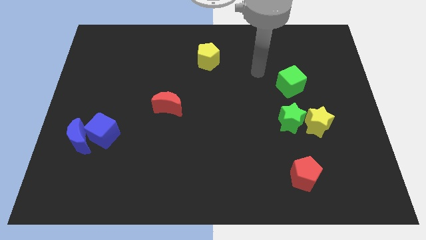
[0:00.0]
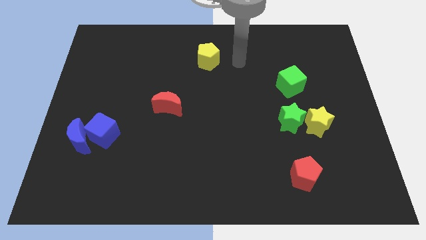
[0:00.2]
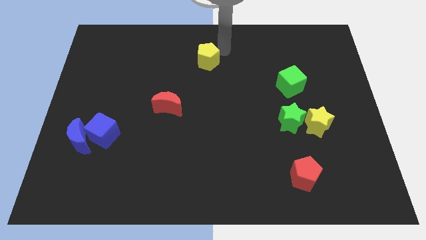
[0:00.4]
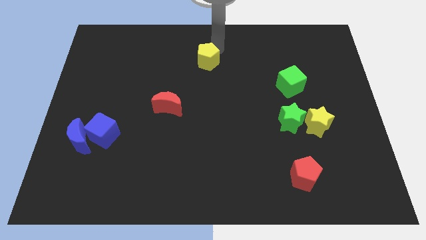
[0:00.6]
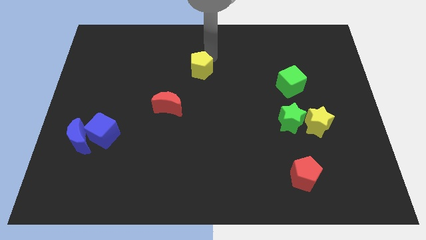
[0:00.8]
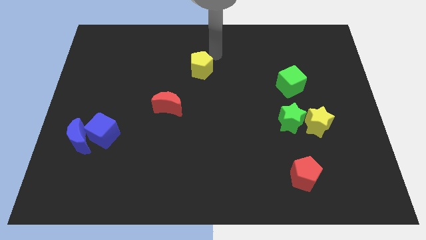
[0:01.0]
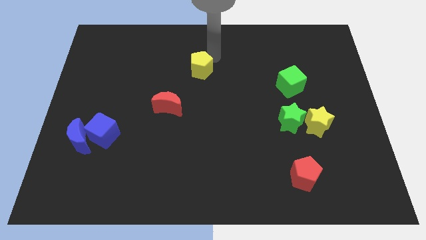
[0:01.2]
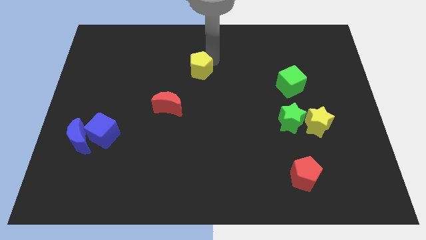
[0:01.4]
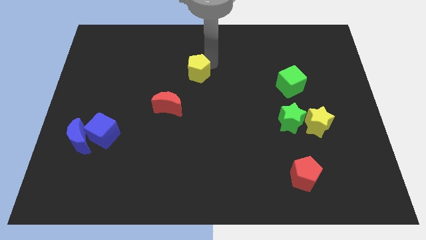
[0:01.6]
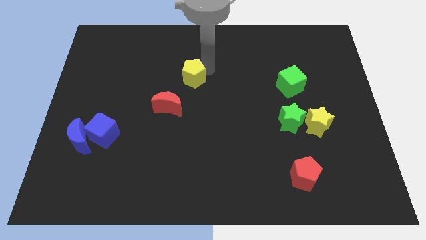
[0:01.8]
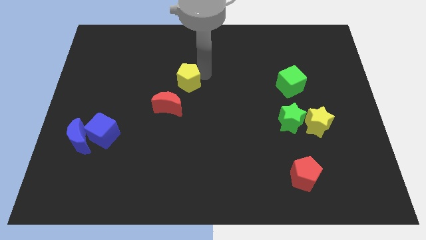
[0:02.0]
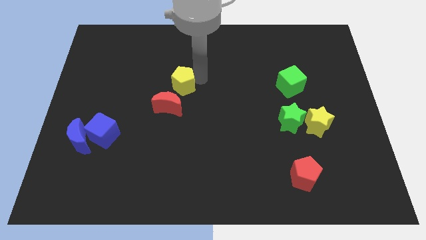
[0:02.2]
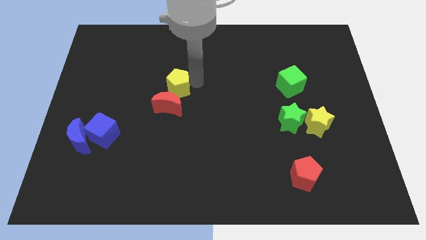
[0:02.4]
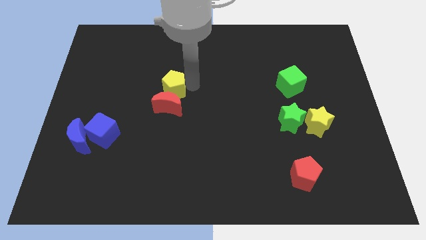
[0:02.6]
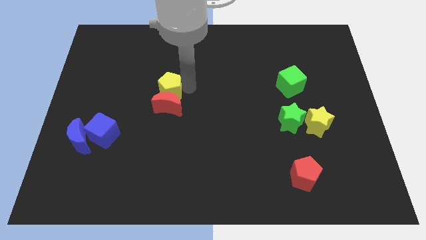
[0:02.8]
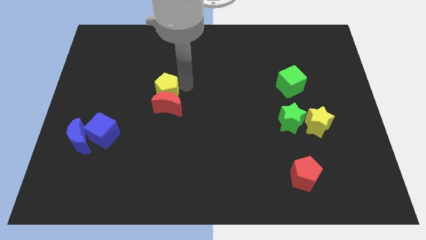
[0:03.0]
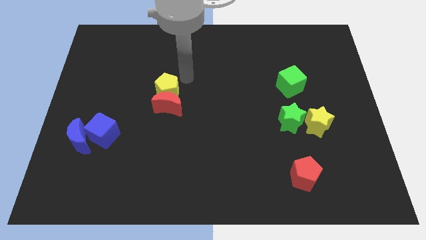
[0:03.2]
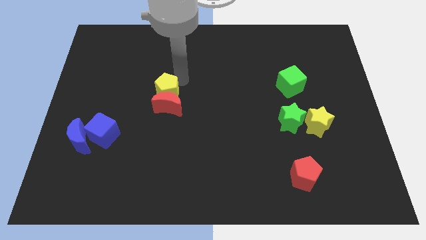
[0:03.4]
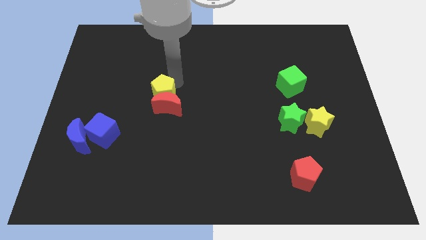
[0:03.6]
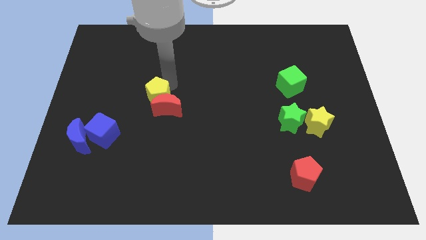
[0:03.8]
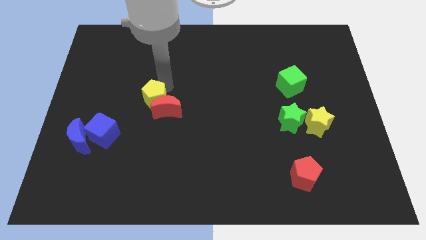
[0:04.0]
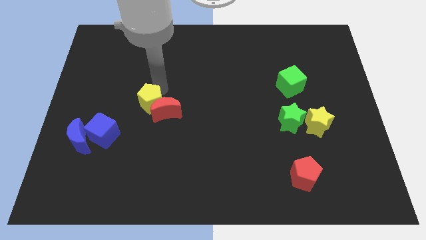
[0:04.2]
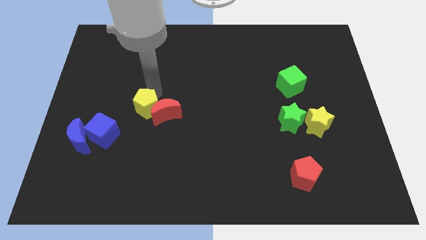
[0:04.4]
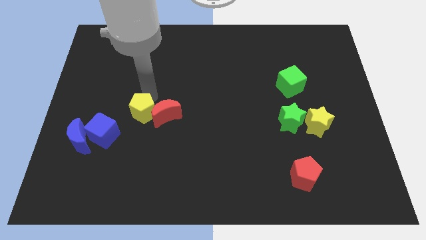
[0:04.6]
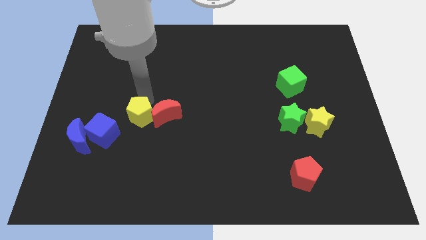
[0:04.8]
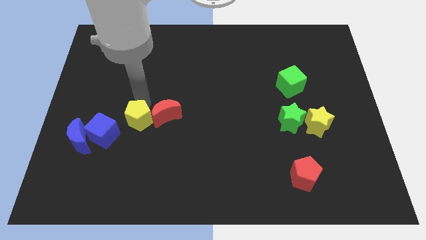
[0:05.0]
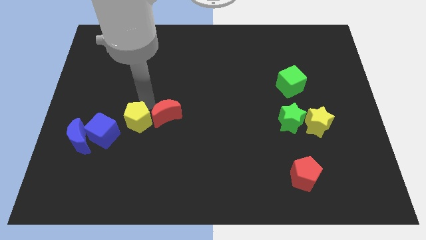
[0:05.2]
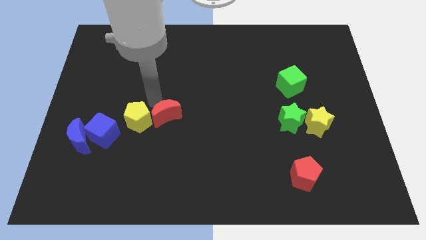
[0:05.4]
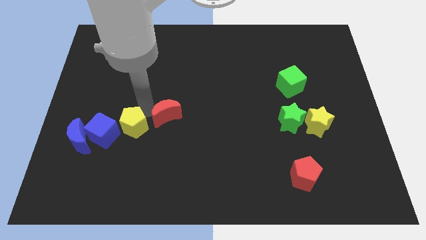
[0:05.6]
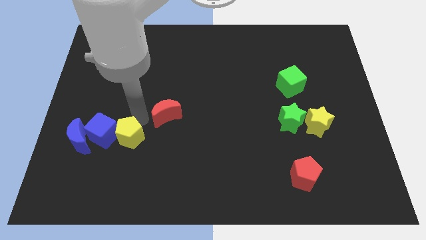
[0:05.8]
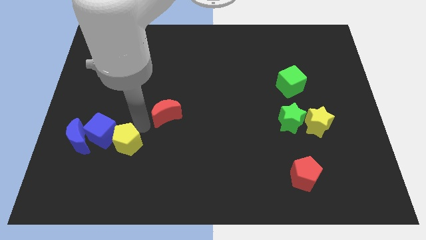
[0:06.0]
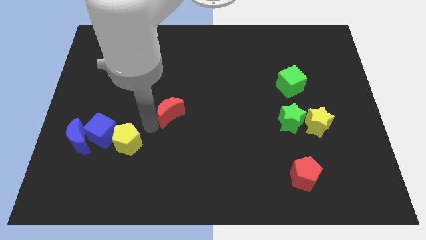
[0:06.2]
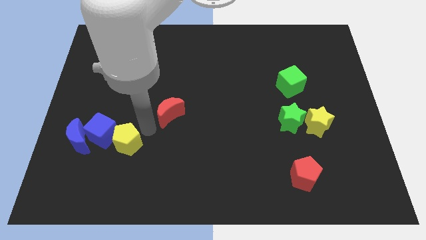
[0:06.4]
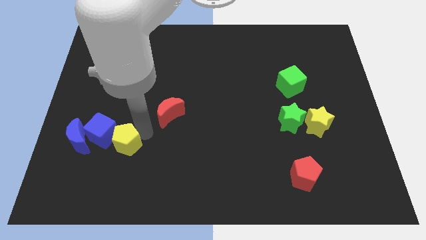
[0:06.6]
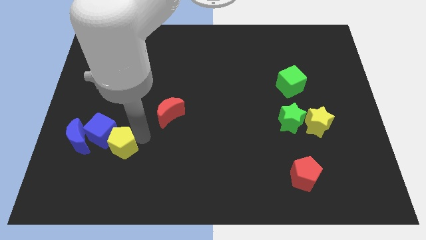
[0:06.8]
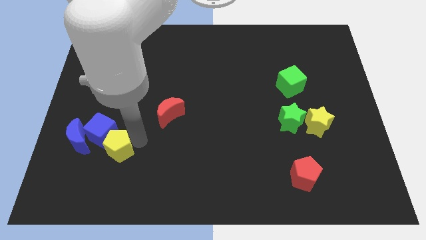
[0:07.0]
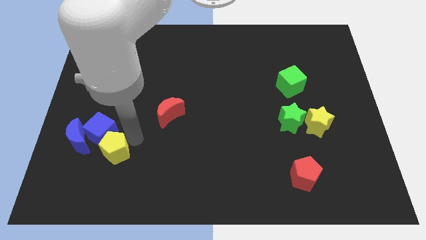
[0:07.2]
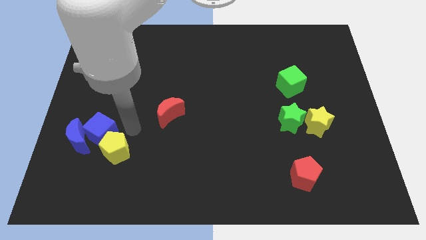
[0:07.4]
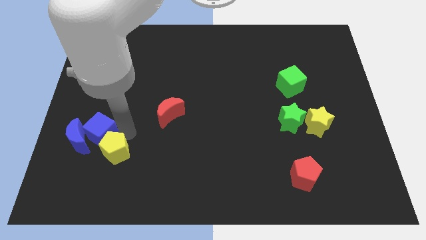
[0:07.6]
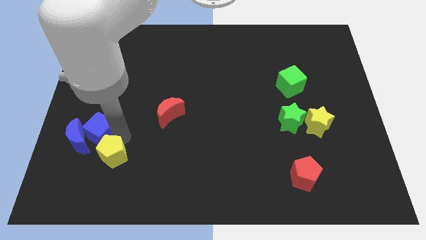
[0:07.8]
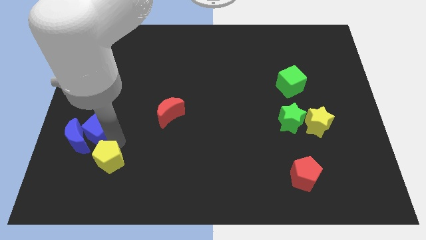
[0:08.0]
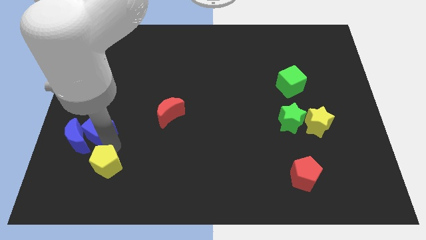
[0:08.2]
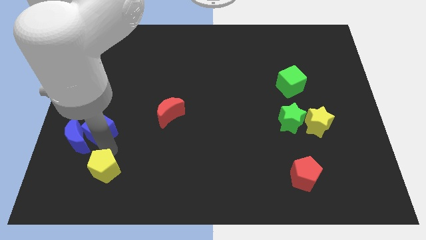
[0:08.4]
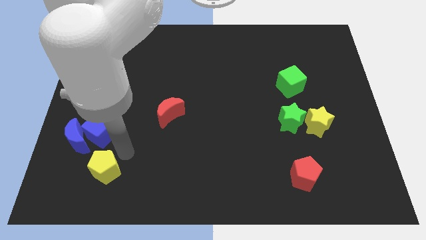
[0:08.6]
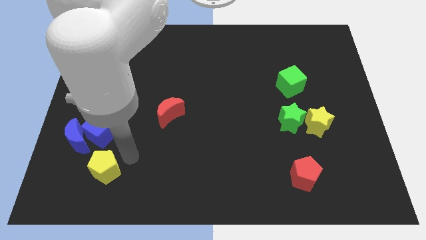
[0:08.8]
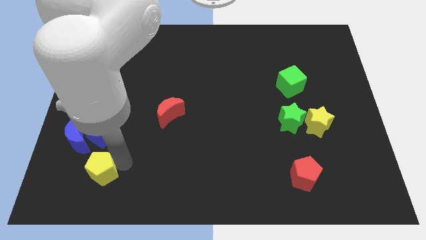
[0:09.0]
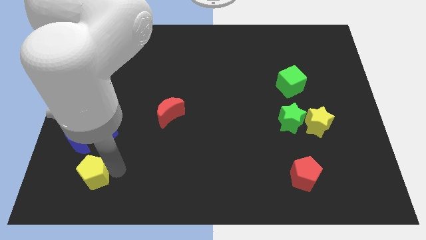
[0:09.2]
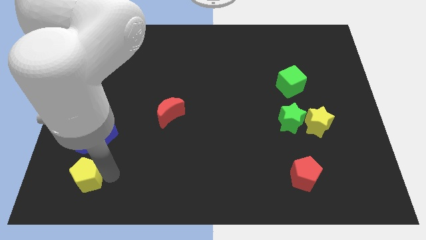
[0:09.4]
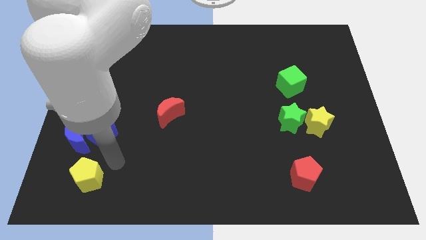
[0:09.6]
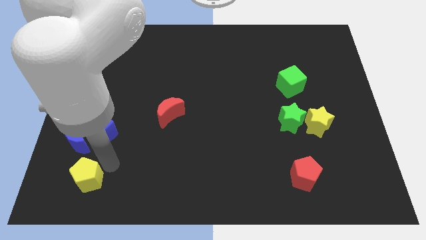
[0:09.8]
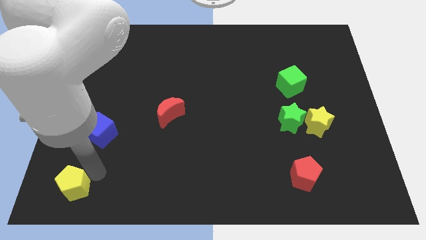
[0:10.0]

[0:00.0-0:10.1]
slide the yellow pentagon to the bottom left of the board

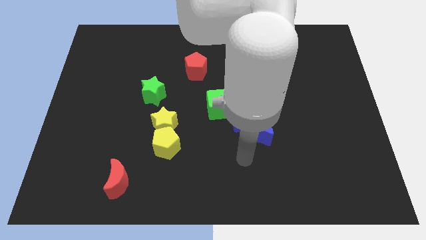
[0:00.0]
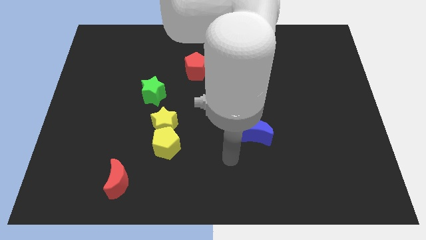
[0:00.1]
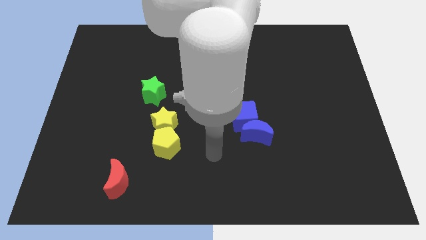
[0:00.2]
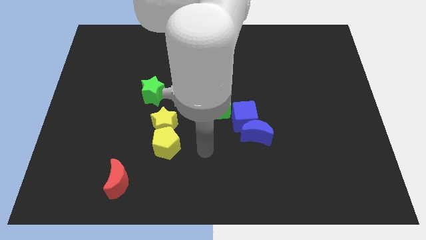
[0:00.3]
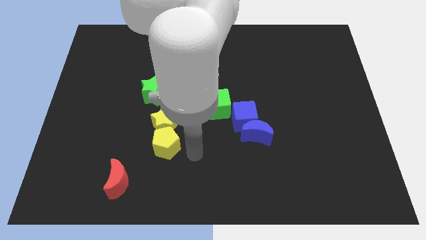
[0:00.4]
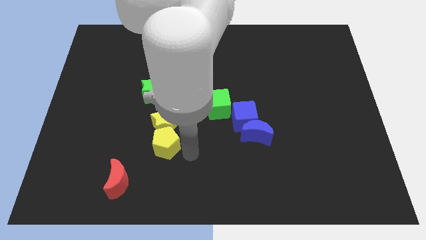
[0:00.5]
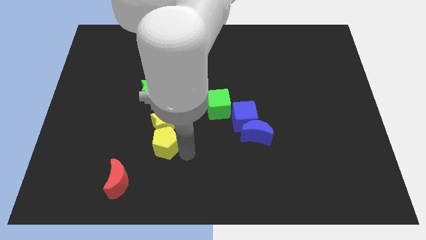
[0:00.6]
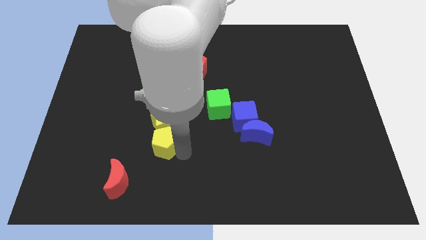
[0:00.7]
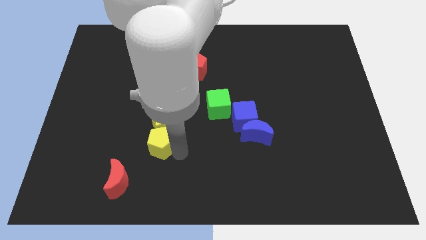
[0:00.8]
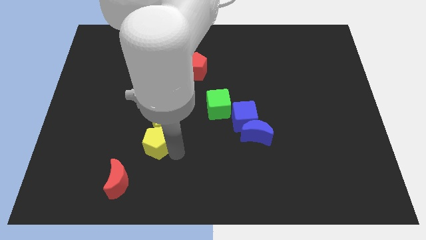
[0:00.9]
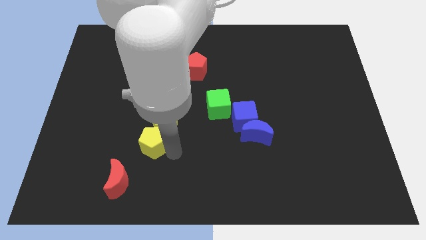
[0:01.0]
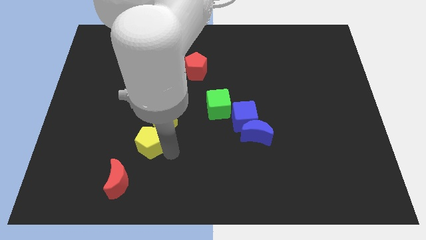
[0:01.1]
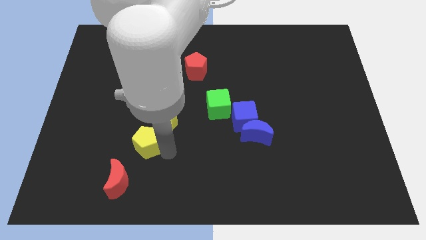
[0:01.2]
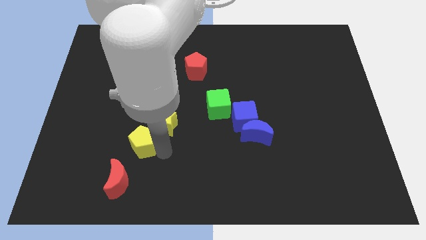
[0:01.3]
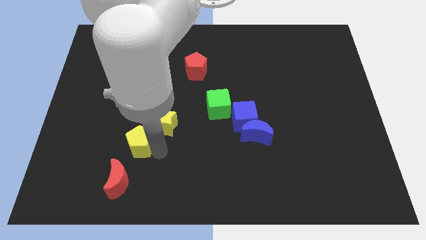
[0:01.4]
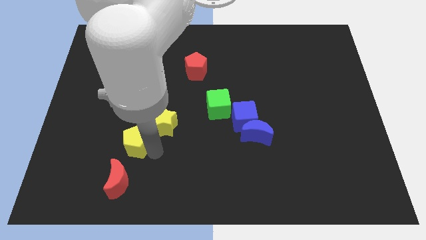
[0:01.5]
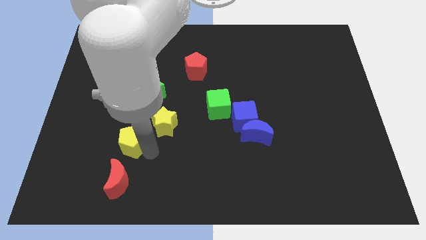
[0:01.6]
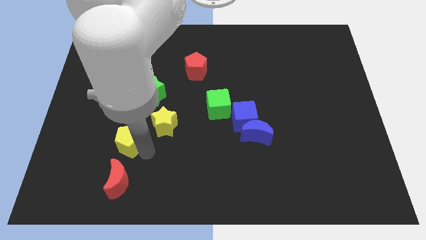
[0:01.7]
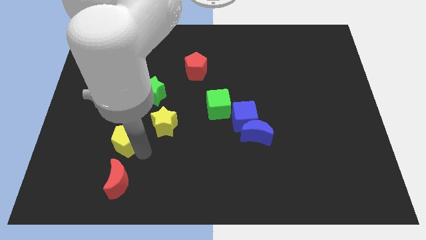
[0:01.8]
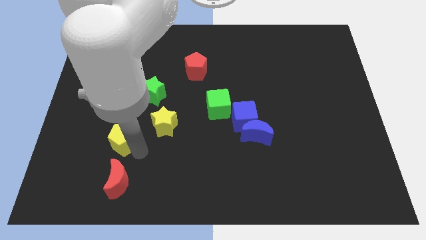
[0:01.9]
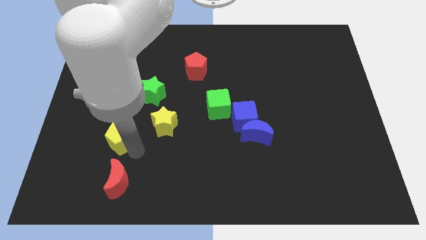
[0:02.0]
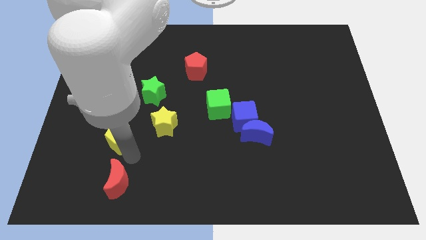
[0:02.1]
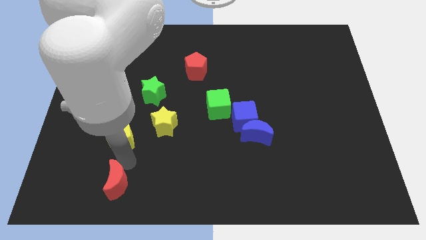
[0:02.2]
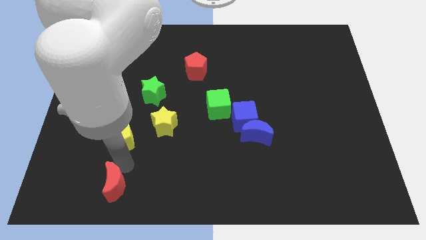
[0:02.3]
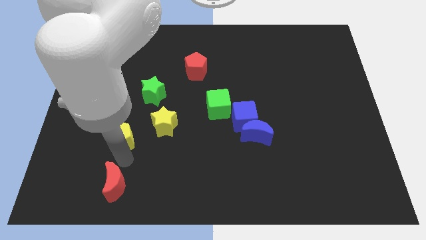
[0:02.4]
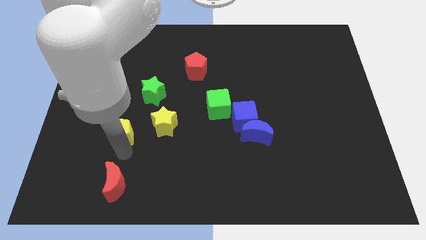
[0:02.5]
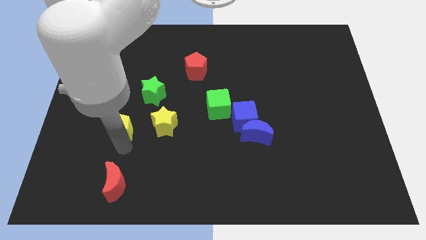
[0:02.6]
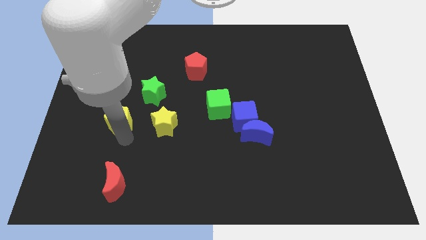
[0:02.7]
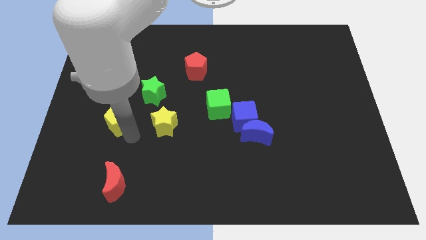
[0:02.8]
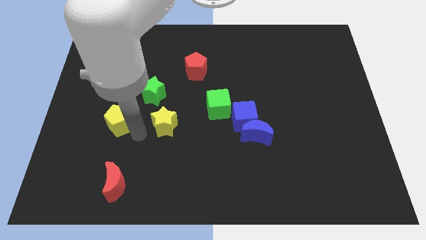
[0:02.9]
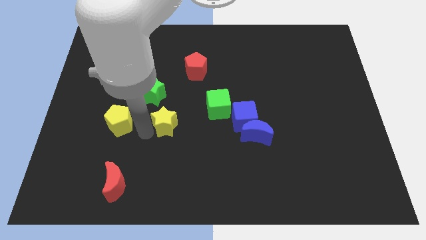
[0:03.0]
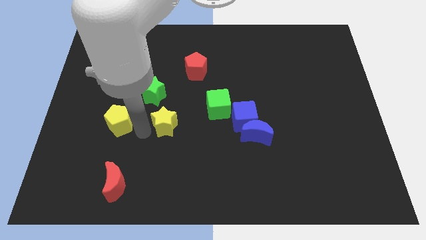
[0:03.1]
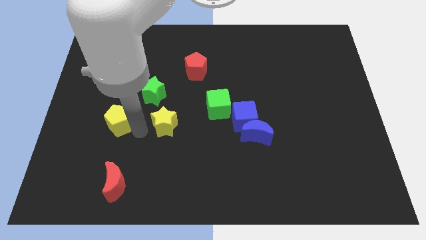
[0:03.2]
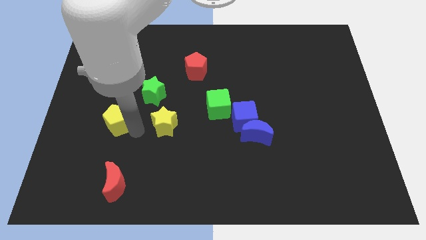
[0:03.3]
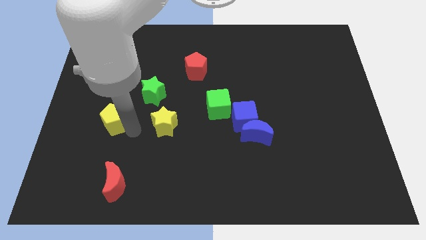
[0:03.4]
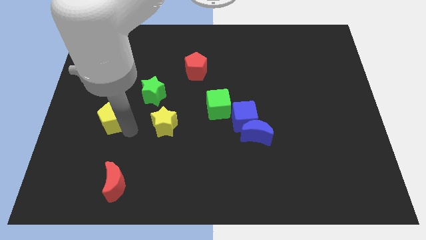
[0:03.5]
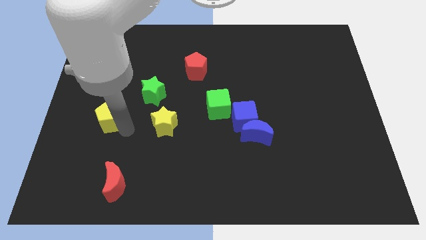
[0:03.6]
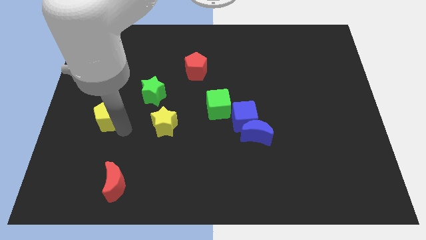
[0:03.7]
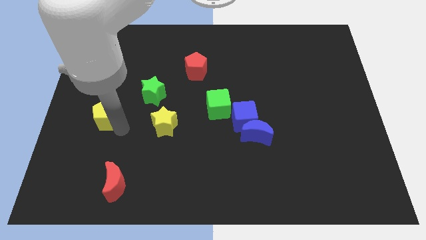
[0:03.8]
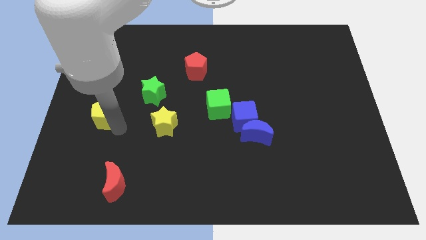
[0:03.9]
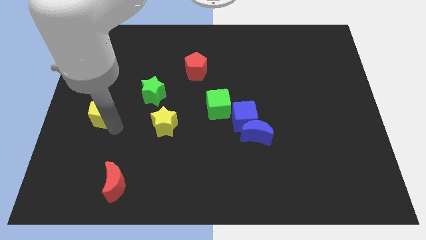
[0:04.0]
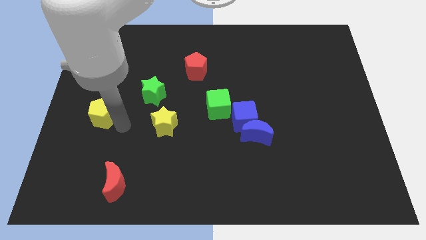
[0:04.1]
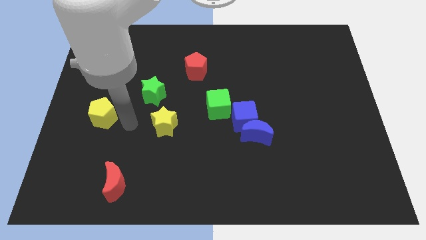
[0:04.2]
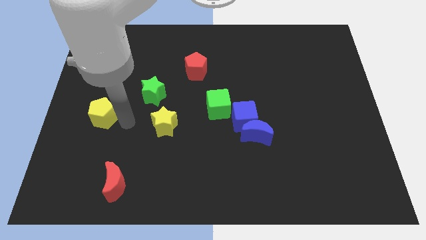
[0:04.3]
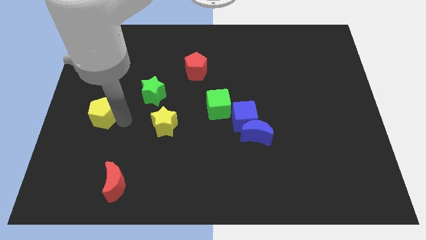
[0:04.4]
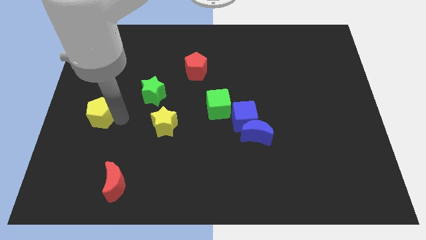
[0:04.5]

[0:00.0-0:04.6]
slide the yellow pentagon to the left side of the board
